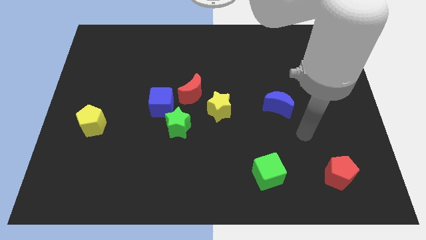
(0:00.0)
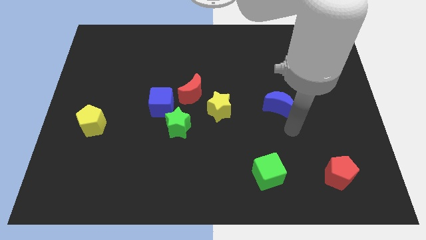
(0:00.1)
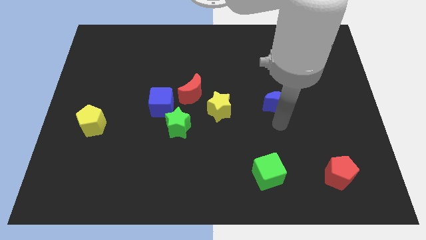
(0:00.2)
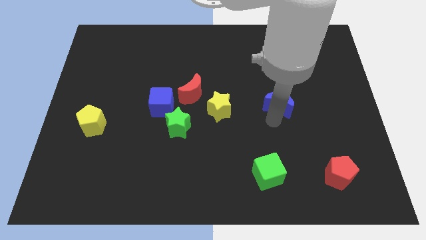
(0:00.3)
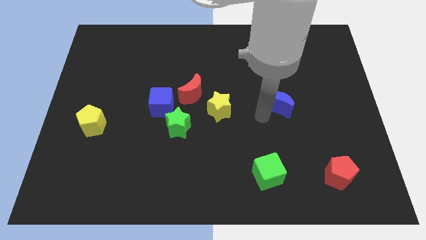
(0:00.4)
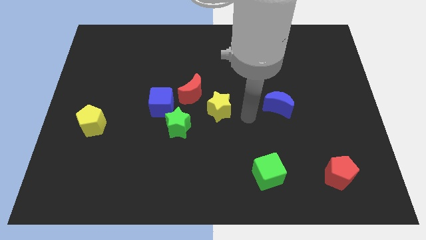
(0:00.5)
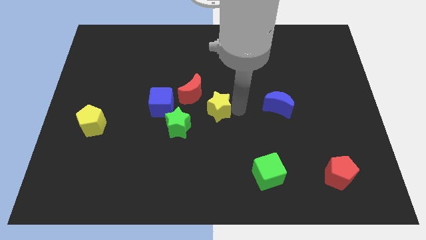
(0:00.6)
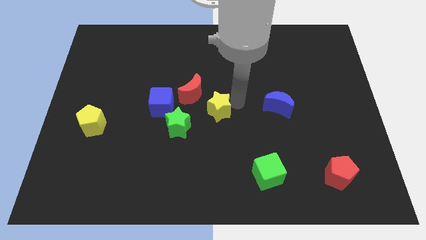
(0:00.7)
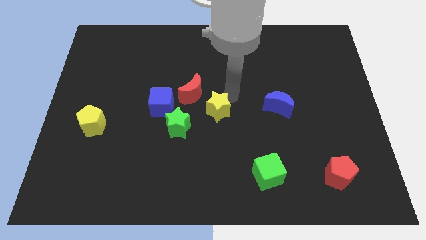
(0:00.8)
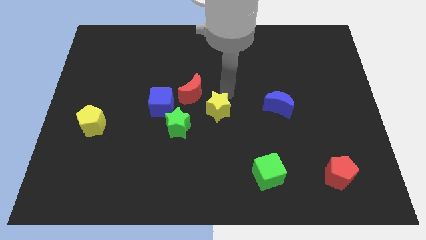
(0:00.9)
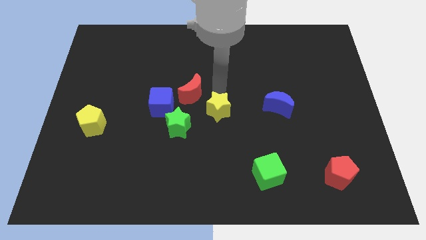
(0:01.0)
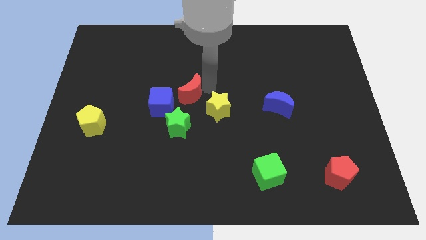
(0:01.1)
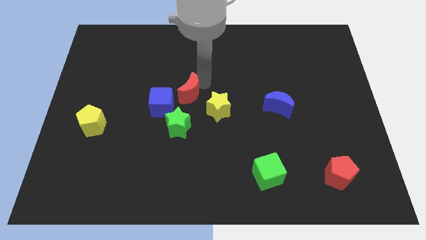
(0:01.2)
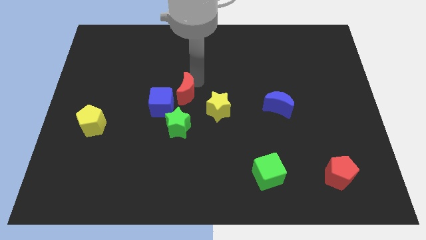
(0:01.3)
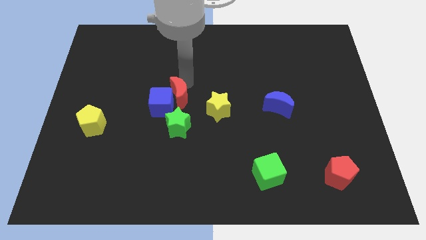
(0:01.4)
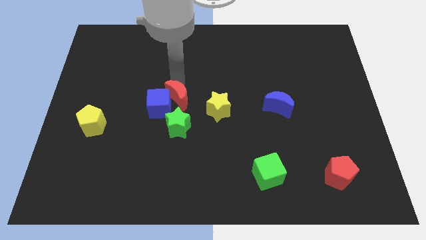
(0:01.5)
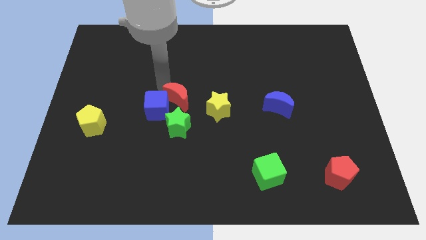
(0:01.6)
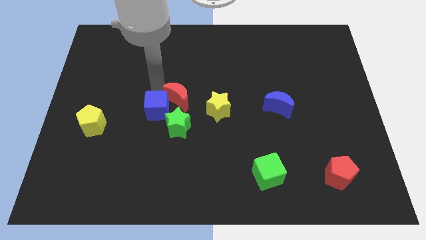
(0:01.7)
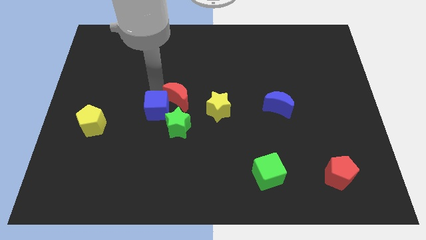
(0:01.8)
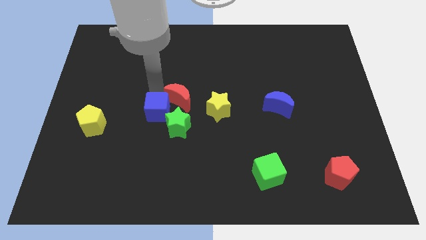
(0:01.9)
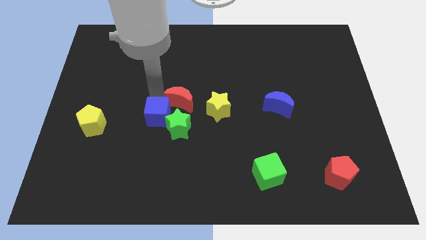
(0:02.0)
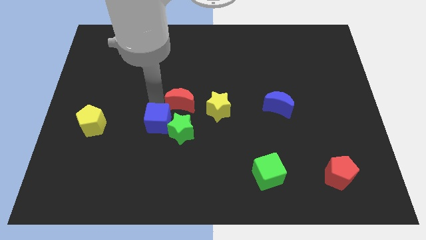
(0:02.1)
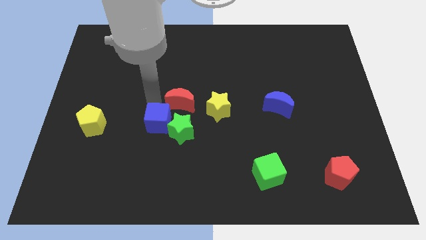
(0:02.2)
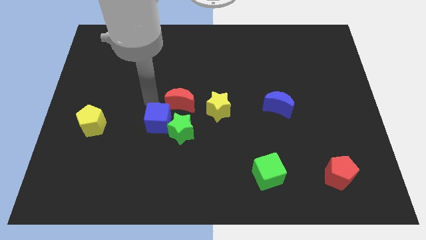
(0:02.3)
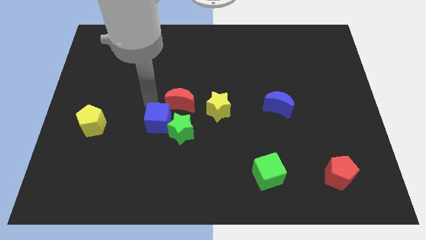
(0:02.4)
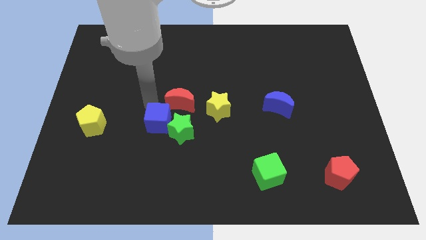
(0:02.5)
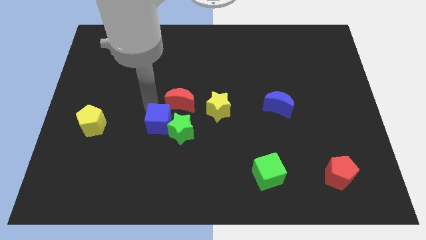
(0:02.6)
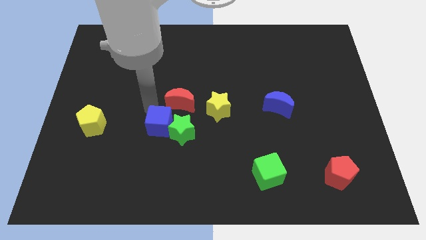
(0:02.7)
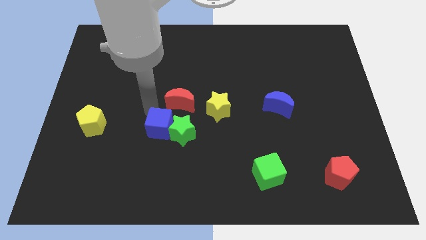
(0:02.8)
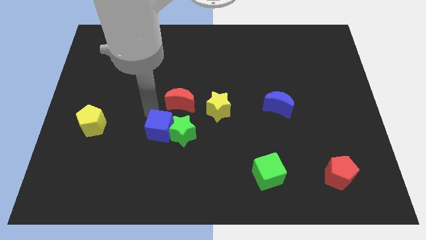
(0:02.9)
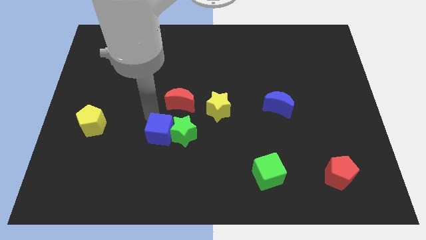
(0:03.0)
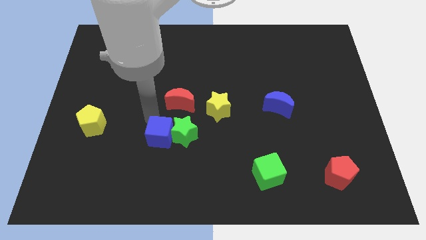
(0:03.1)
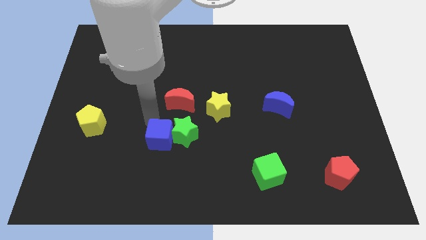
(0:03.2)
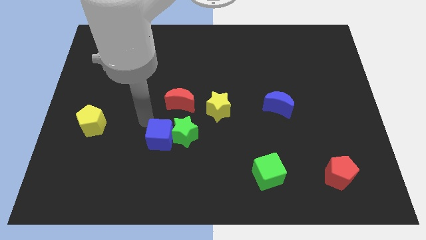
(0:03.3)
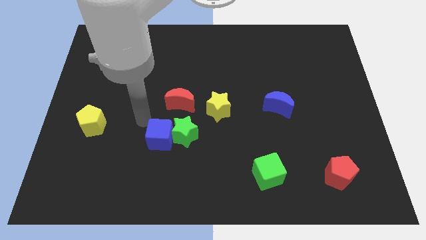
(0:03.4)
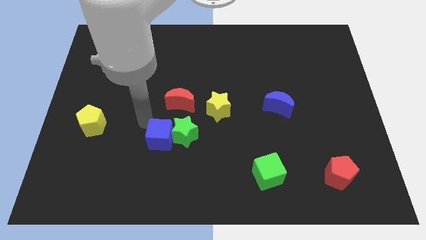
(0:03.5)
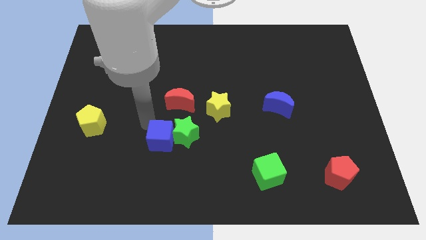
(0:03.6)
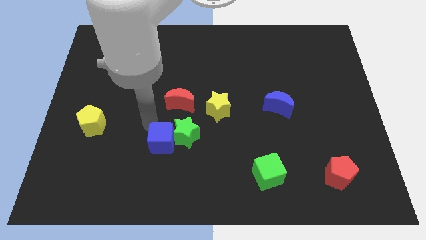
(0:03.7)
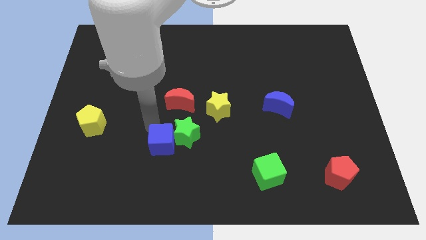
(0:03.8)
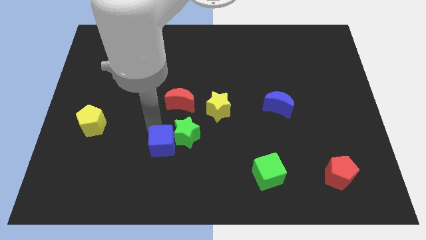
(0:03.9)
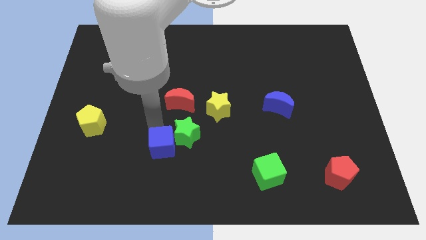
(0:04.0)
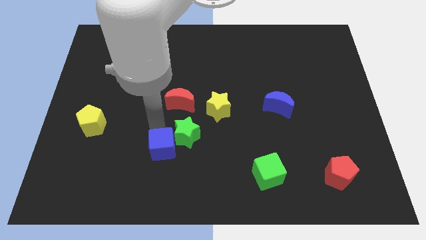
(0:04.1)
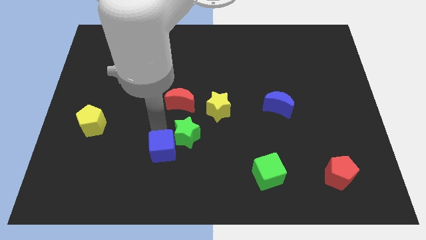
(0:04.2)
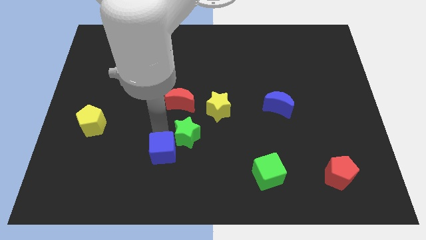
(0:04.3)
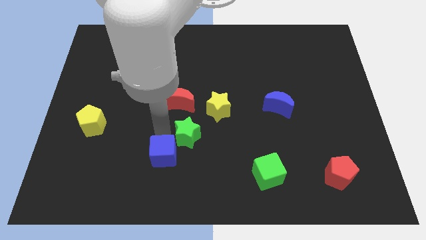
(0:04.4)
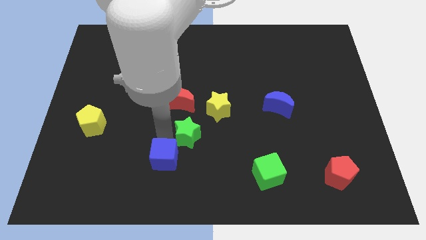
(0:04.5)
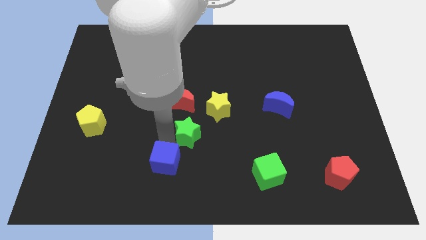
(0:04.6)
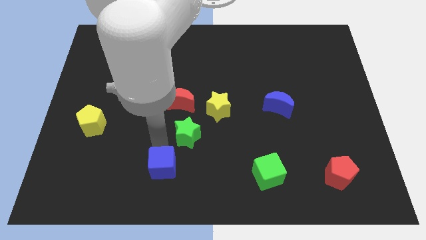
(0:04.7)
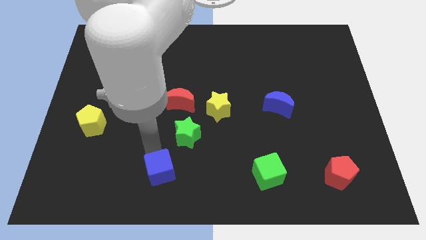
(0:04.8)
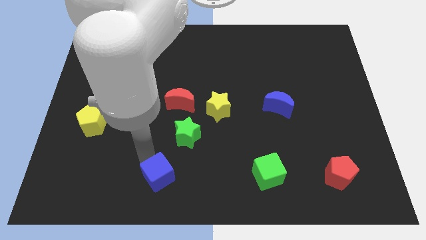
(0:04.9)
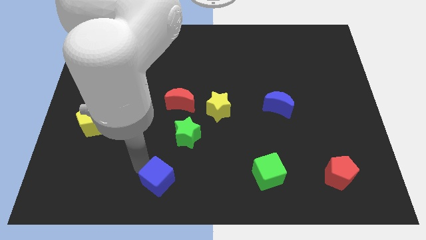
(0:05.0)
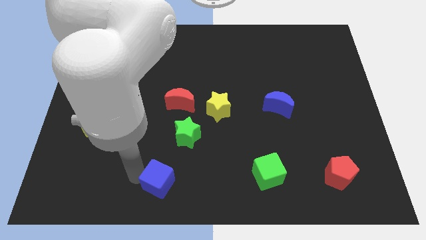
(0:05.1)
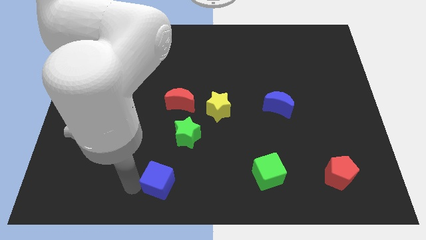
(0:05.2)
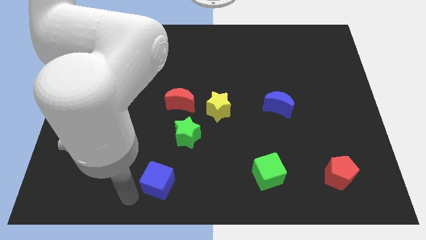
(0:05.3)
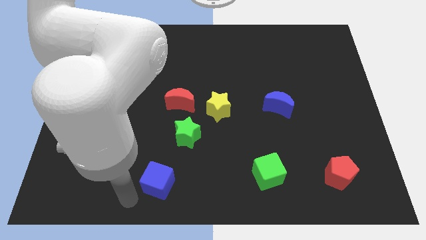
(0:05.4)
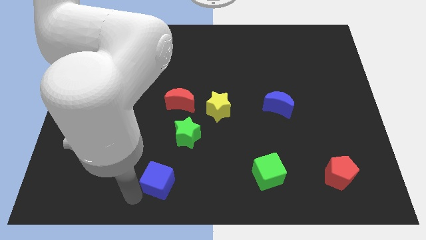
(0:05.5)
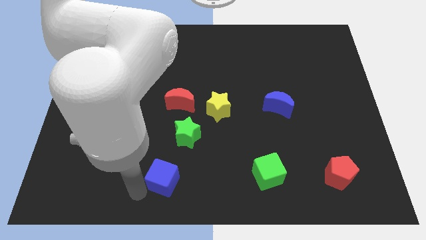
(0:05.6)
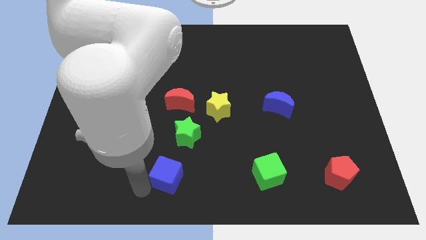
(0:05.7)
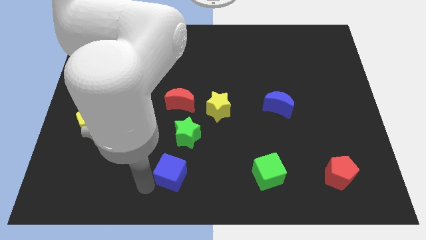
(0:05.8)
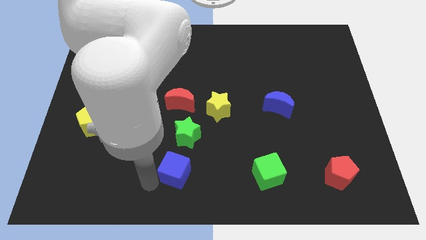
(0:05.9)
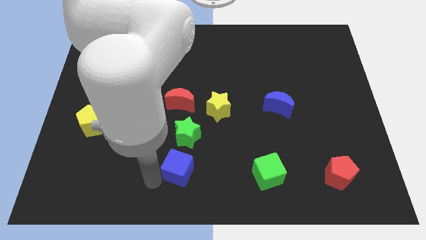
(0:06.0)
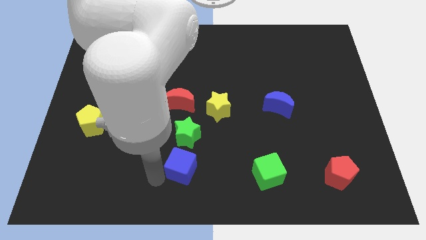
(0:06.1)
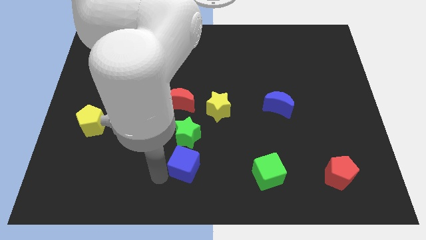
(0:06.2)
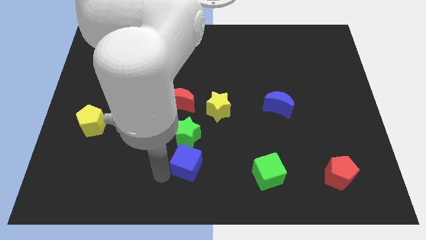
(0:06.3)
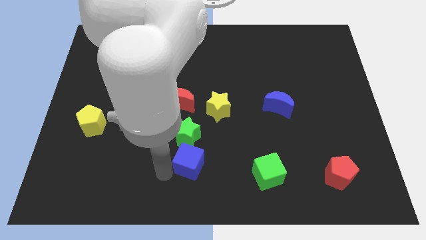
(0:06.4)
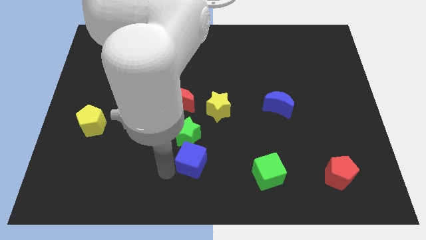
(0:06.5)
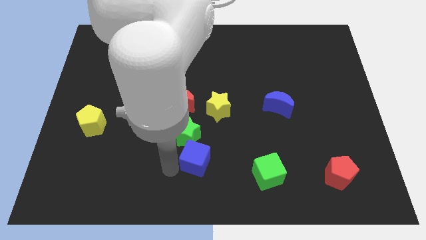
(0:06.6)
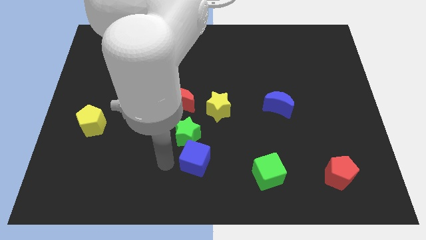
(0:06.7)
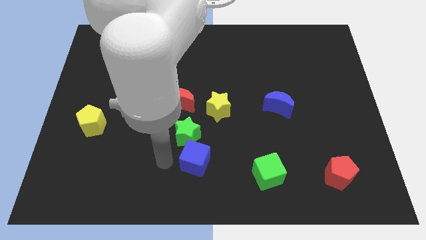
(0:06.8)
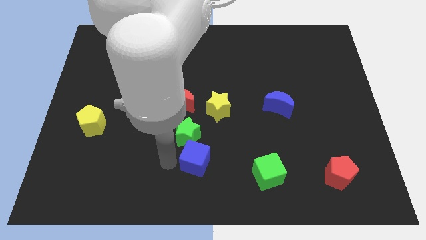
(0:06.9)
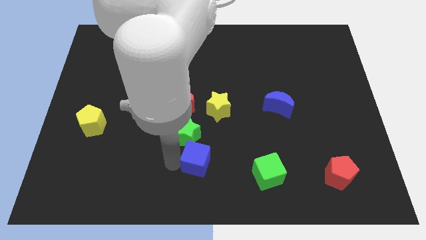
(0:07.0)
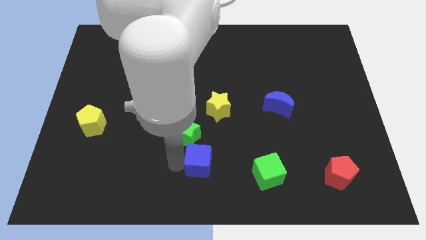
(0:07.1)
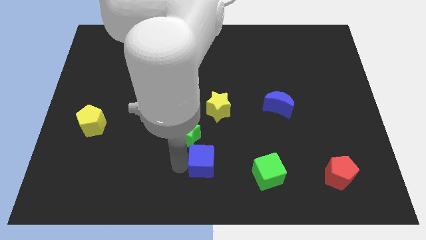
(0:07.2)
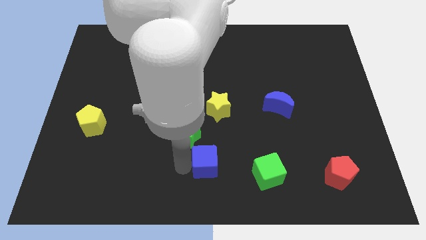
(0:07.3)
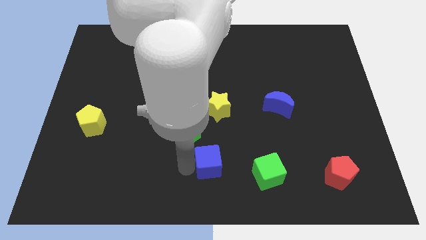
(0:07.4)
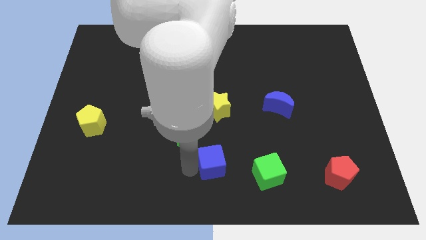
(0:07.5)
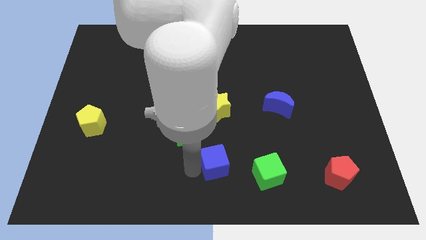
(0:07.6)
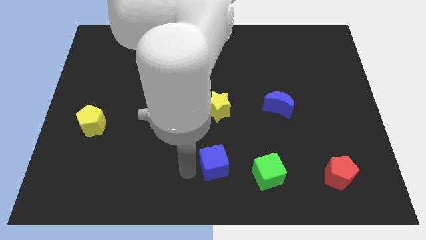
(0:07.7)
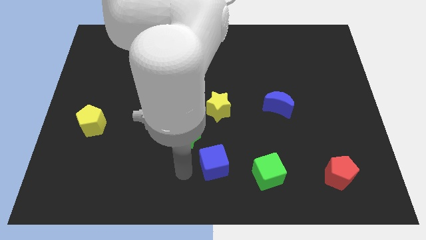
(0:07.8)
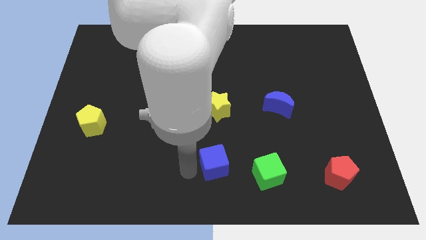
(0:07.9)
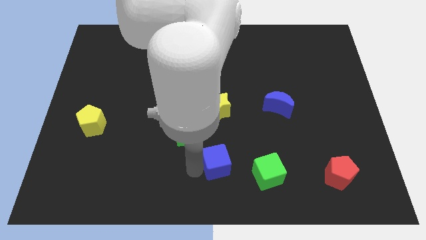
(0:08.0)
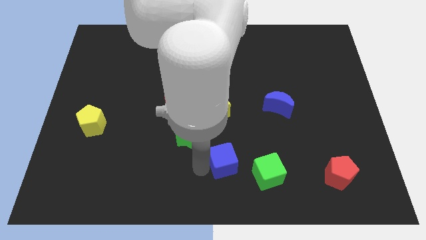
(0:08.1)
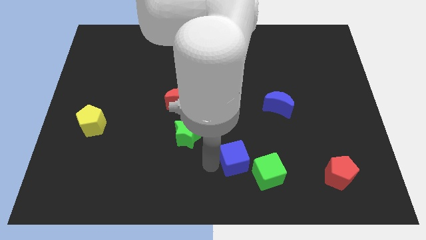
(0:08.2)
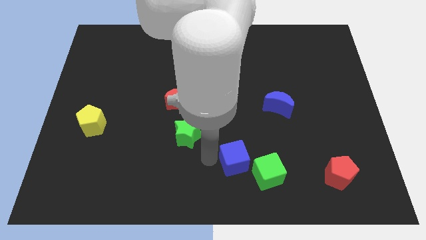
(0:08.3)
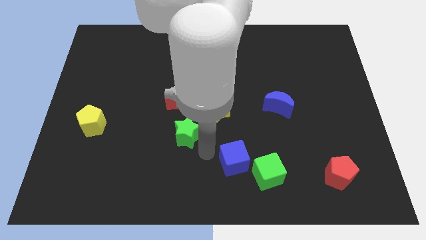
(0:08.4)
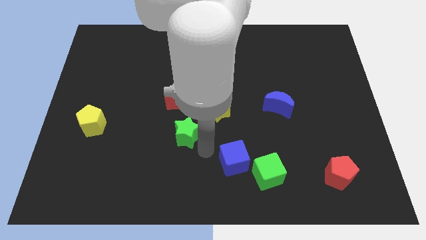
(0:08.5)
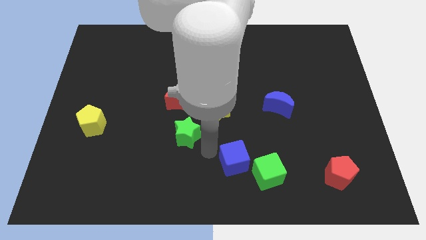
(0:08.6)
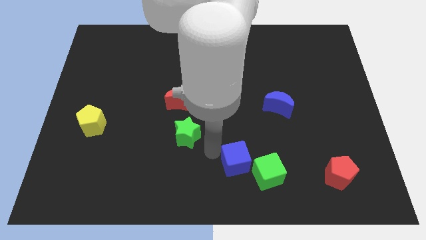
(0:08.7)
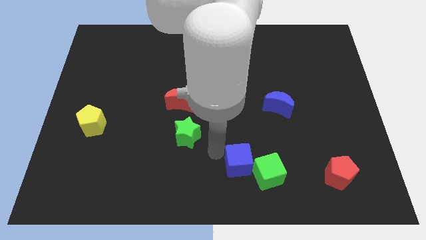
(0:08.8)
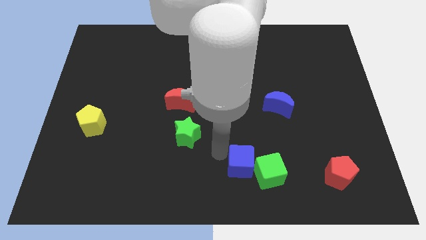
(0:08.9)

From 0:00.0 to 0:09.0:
put the blue cube next to the green cube
